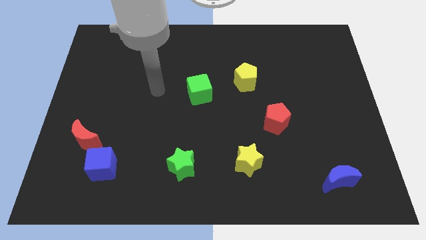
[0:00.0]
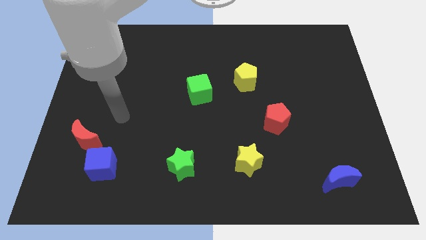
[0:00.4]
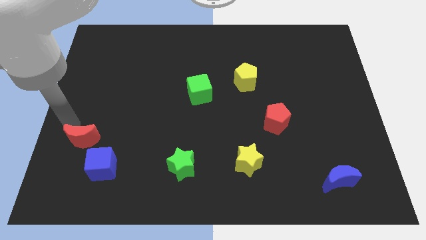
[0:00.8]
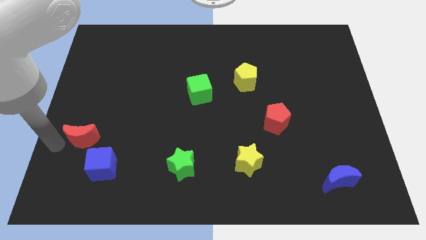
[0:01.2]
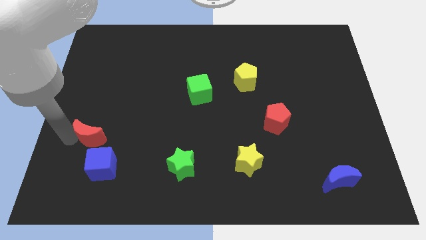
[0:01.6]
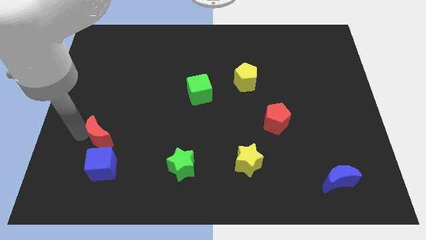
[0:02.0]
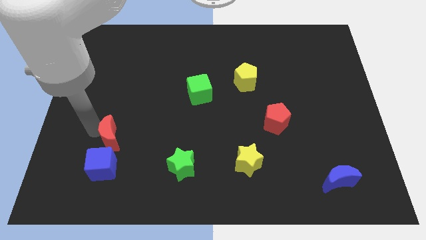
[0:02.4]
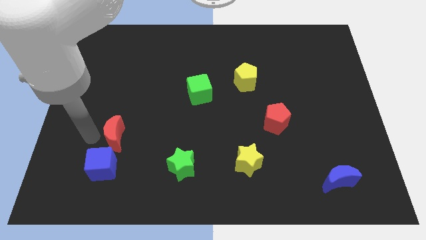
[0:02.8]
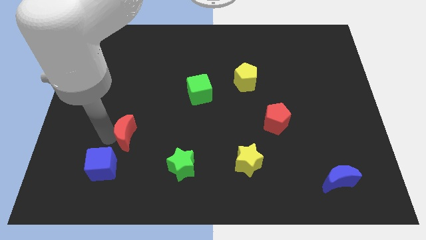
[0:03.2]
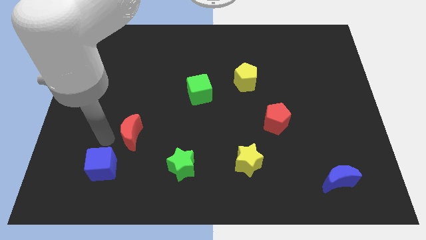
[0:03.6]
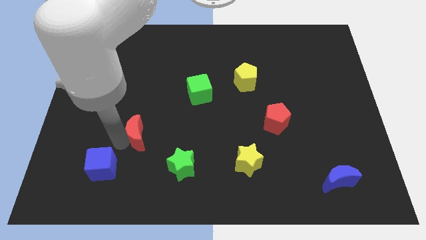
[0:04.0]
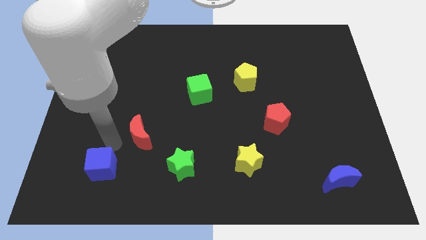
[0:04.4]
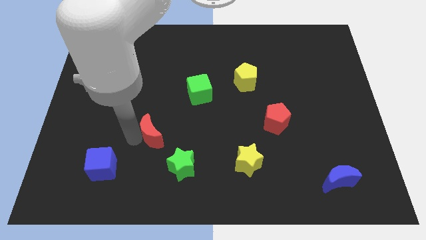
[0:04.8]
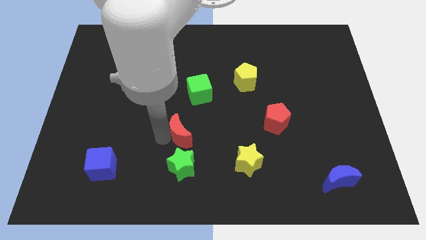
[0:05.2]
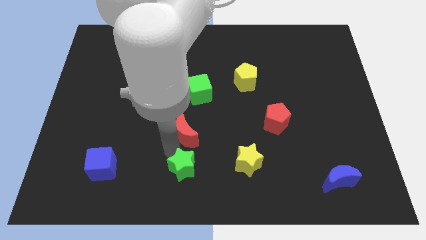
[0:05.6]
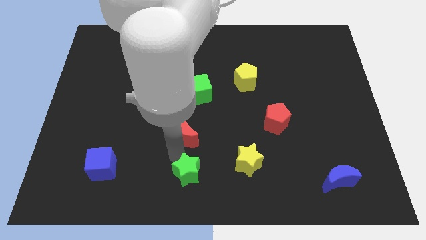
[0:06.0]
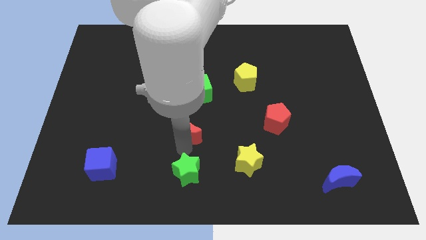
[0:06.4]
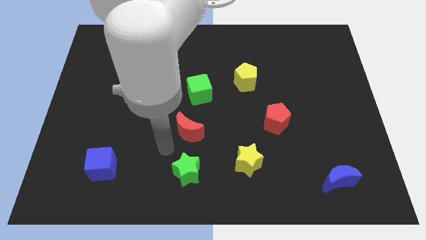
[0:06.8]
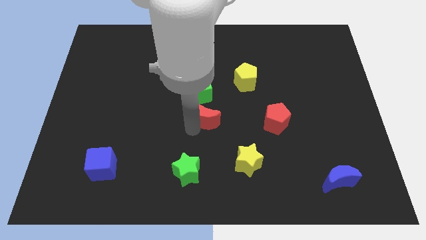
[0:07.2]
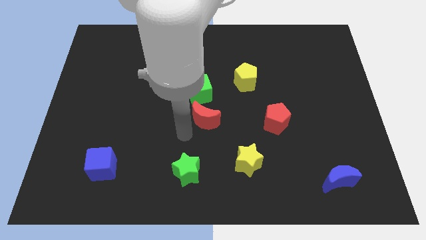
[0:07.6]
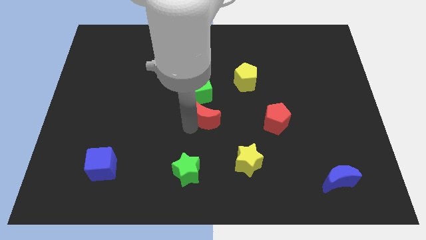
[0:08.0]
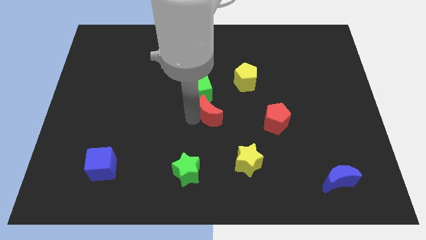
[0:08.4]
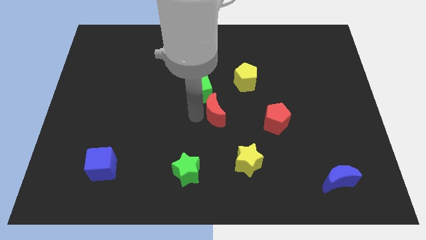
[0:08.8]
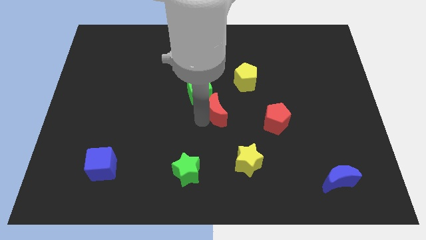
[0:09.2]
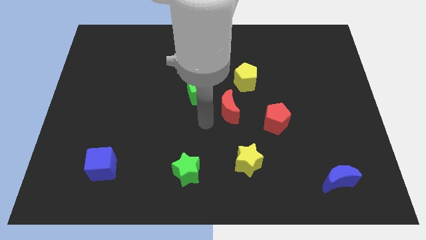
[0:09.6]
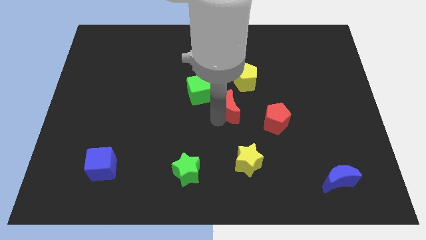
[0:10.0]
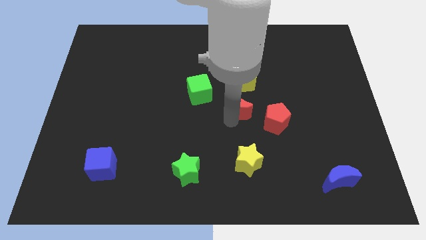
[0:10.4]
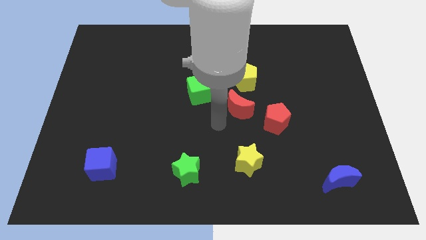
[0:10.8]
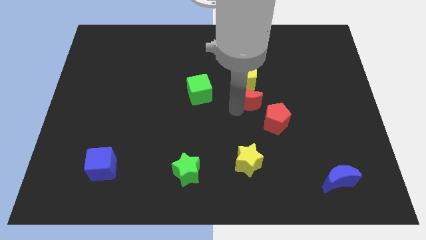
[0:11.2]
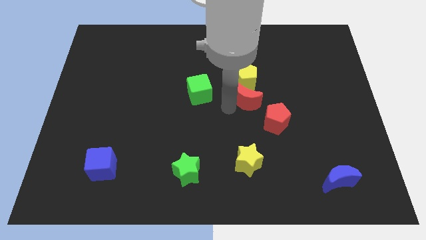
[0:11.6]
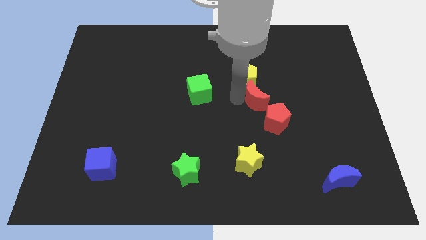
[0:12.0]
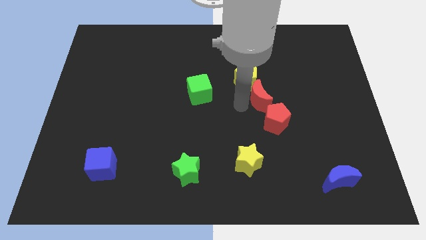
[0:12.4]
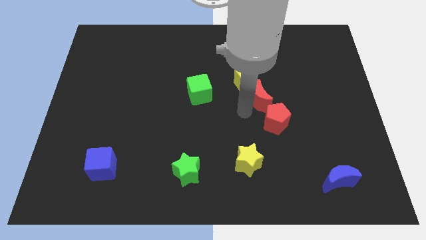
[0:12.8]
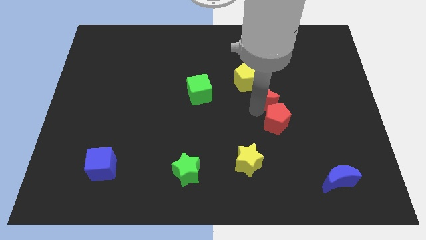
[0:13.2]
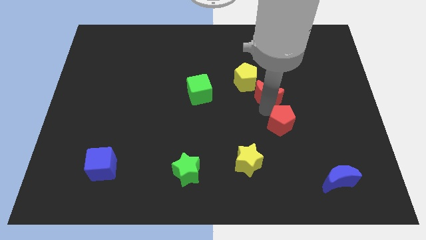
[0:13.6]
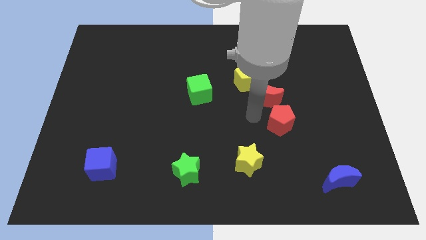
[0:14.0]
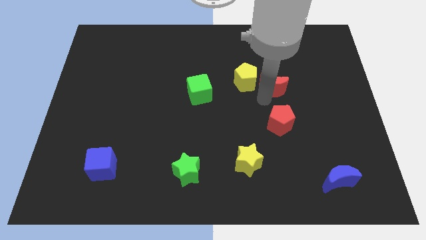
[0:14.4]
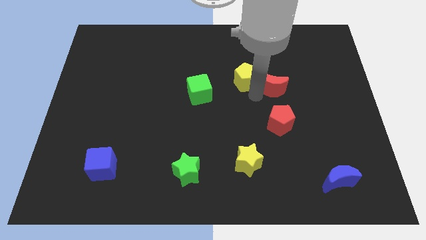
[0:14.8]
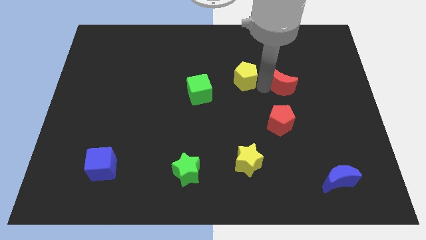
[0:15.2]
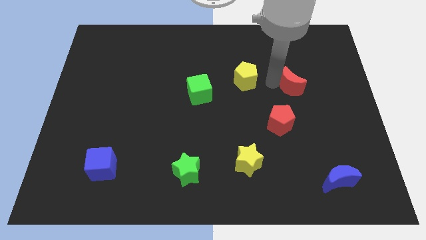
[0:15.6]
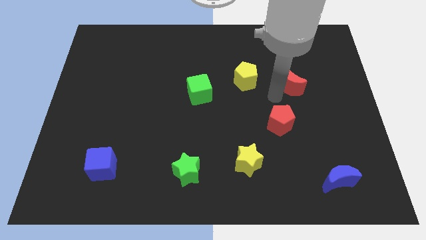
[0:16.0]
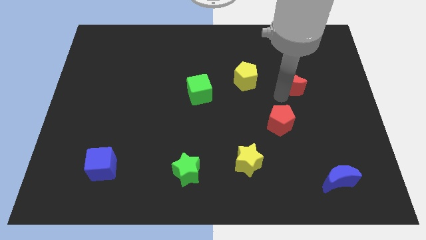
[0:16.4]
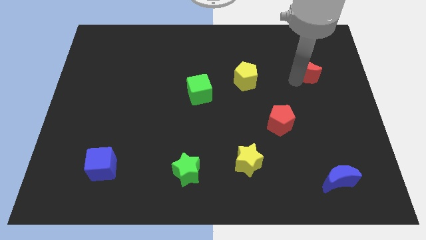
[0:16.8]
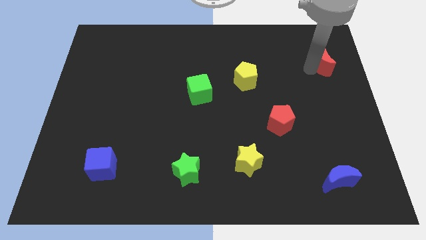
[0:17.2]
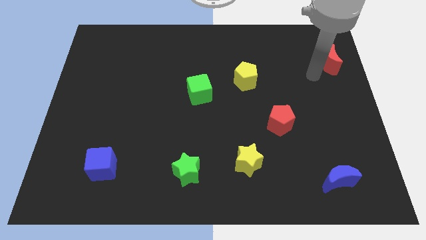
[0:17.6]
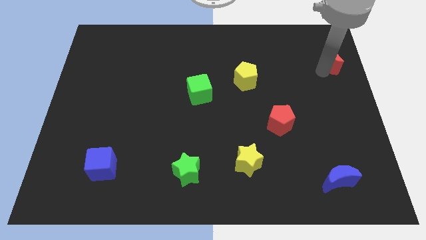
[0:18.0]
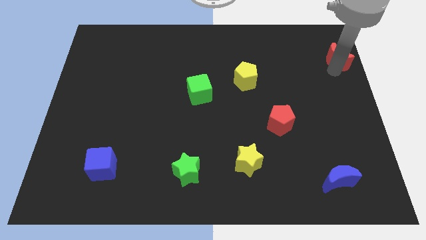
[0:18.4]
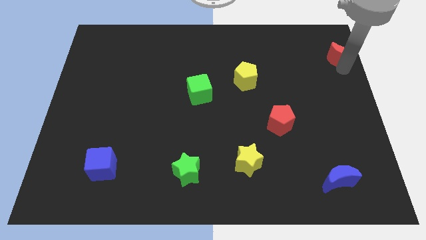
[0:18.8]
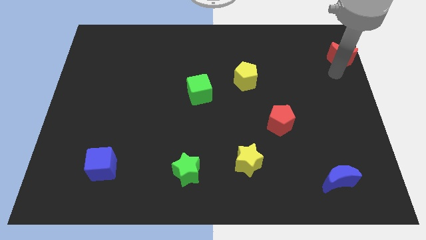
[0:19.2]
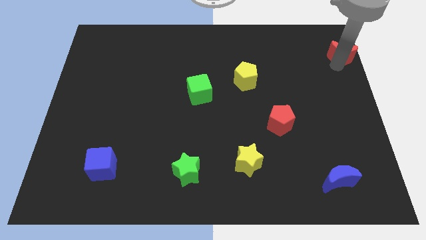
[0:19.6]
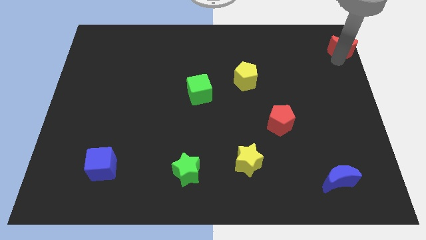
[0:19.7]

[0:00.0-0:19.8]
slide the red moon to the top right

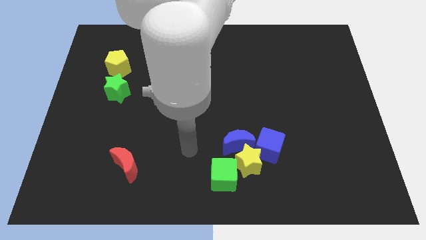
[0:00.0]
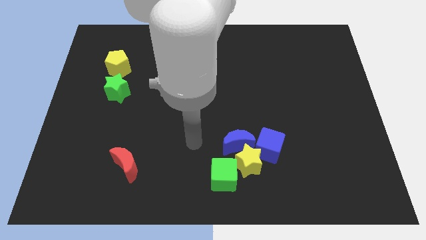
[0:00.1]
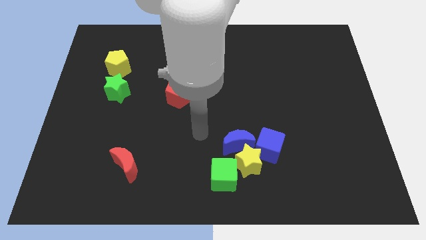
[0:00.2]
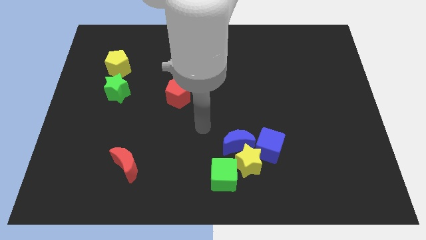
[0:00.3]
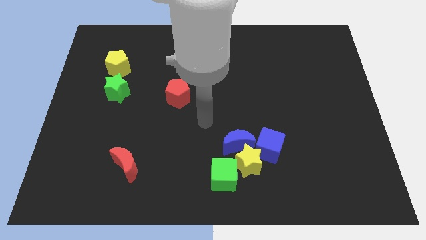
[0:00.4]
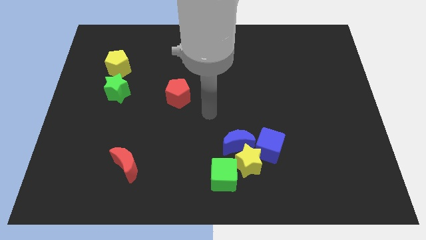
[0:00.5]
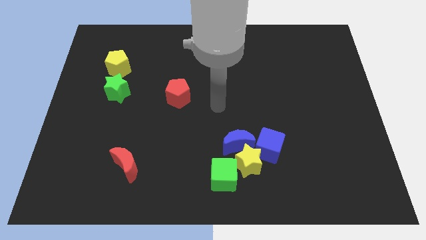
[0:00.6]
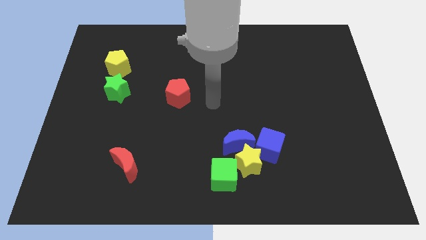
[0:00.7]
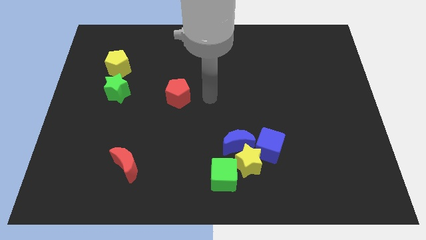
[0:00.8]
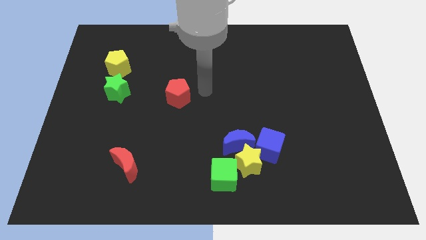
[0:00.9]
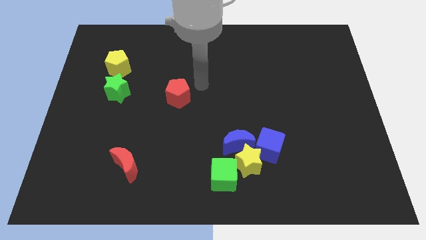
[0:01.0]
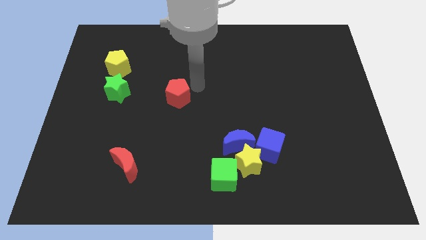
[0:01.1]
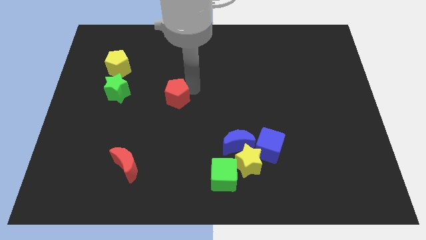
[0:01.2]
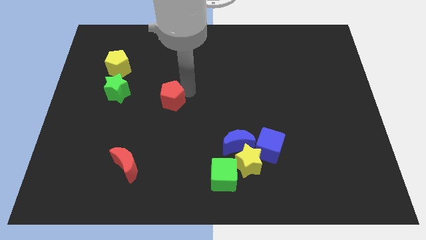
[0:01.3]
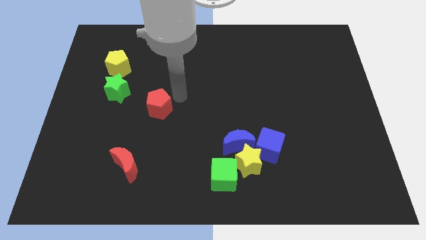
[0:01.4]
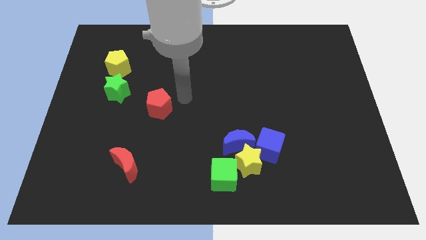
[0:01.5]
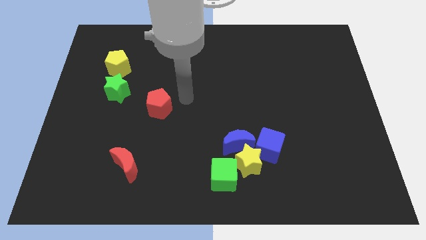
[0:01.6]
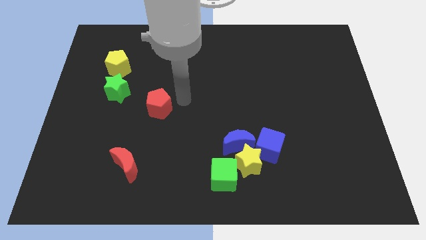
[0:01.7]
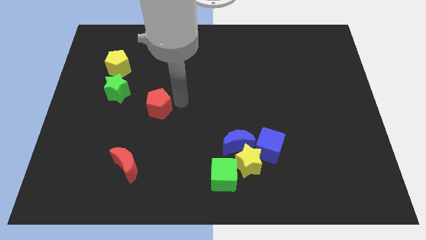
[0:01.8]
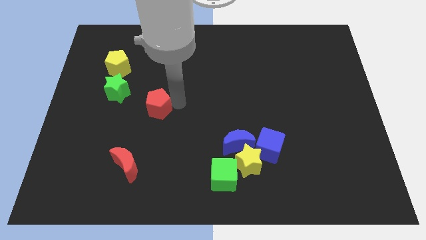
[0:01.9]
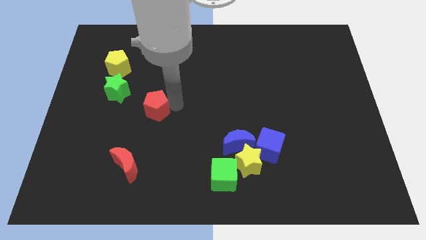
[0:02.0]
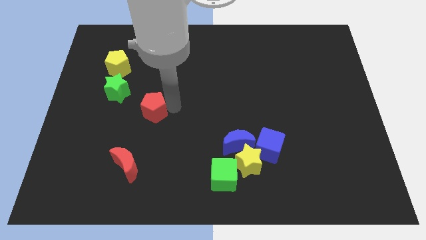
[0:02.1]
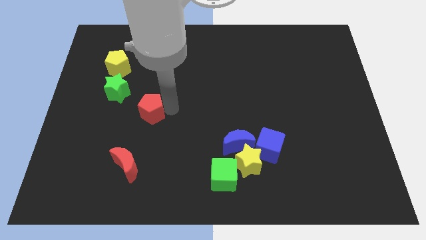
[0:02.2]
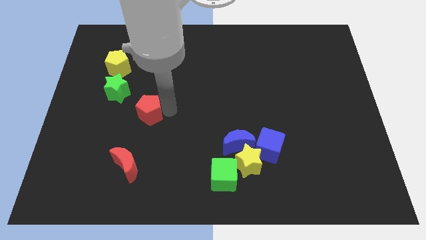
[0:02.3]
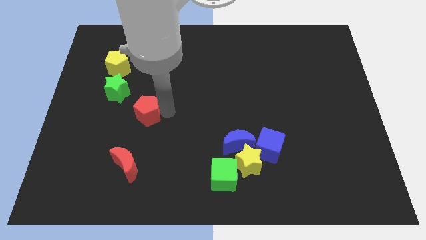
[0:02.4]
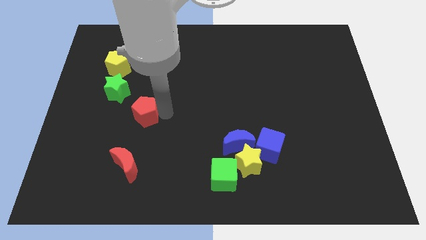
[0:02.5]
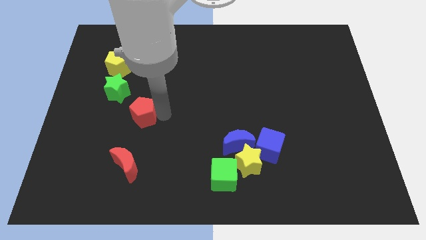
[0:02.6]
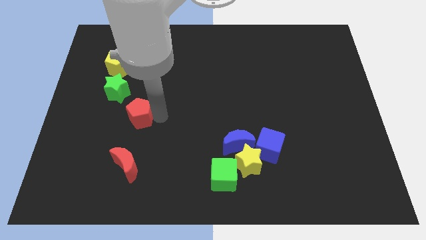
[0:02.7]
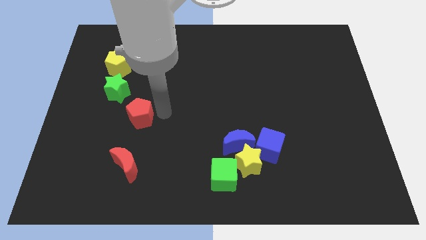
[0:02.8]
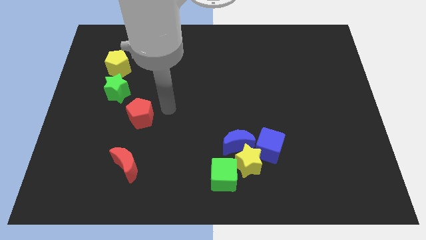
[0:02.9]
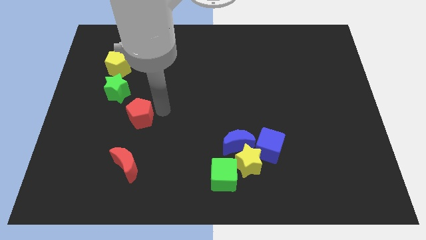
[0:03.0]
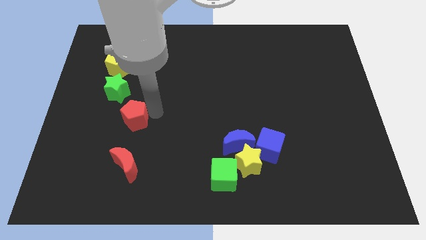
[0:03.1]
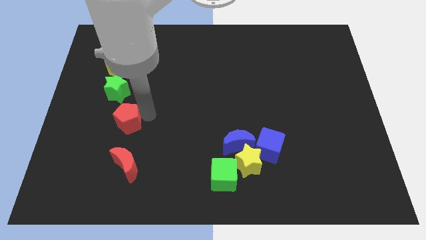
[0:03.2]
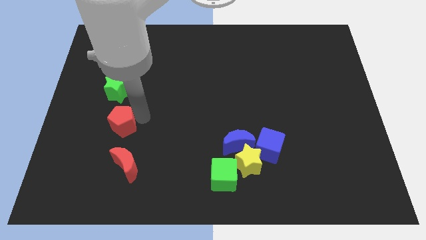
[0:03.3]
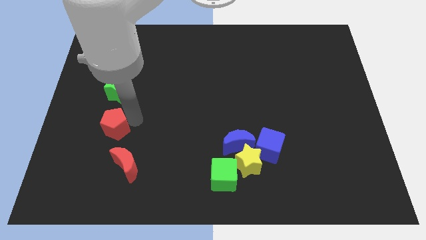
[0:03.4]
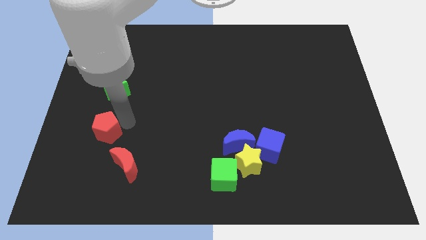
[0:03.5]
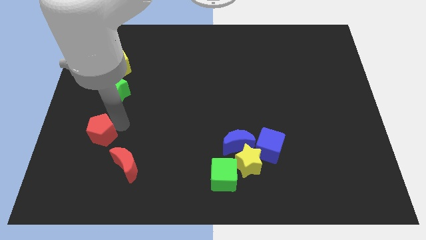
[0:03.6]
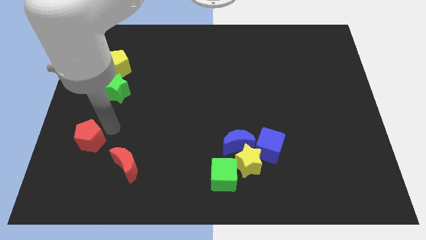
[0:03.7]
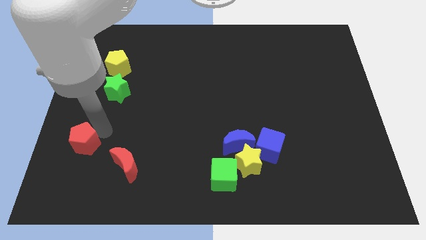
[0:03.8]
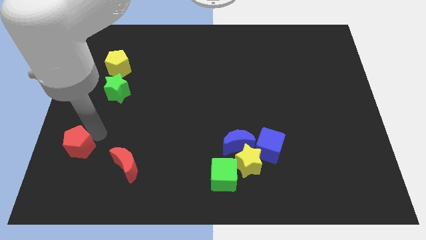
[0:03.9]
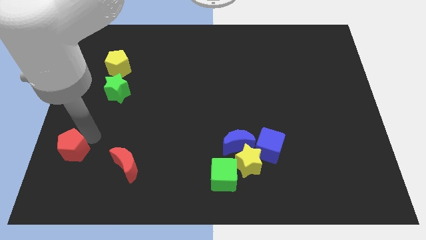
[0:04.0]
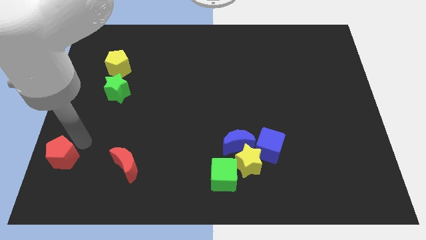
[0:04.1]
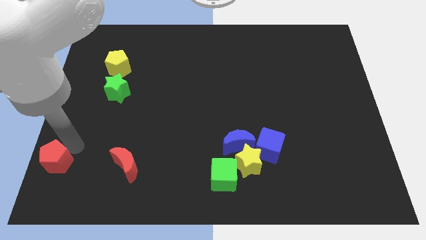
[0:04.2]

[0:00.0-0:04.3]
slide the red pentagon to the bottom left corner
